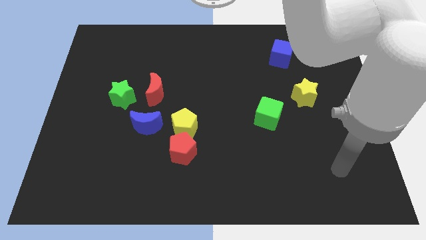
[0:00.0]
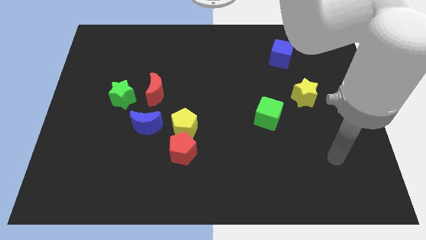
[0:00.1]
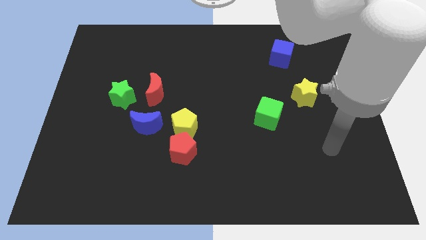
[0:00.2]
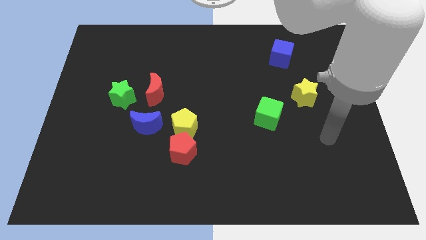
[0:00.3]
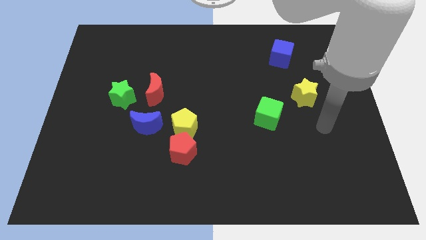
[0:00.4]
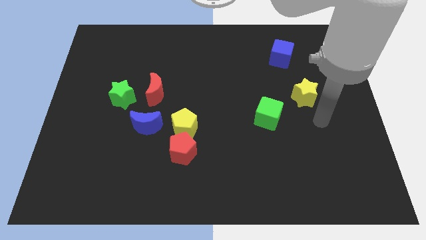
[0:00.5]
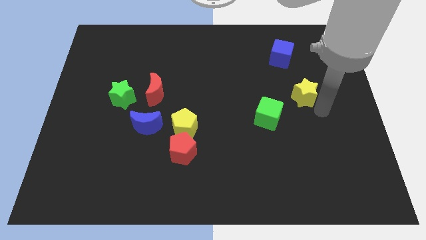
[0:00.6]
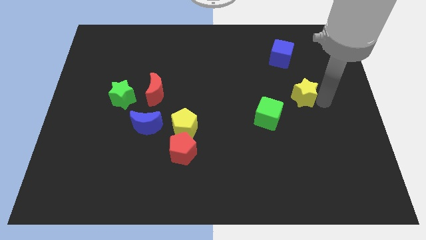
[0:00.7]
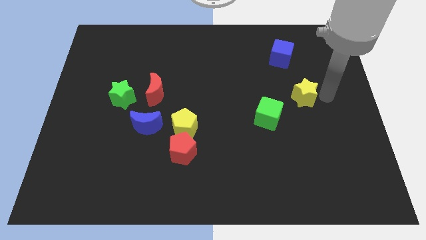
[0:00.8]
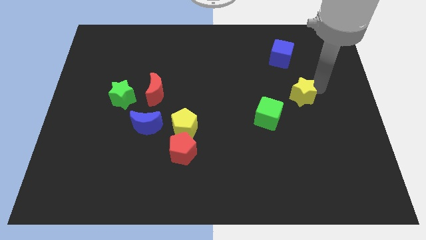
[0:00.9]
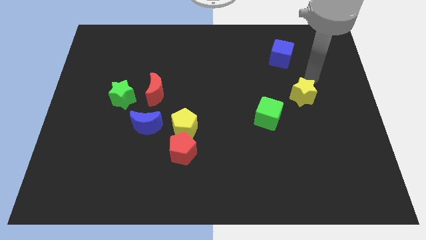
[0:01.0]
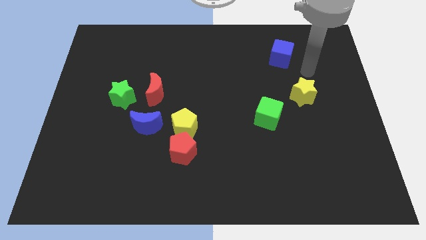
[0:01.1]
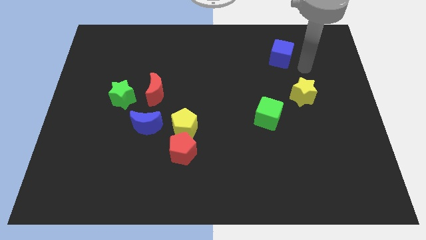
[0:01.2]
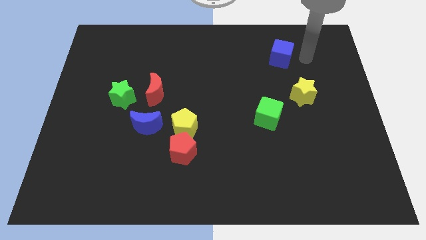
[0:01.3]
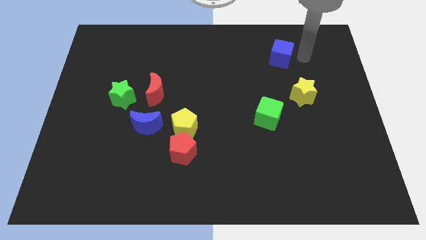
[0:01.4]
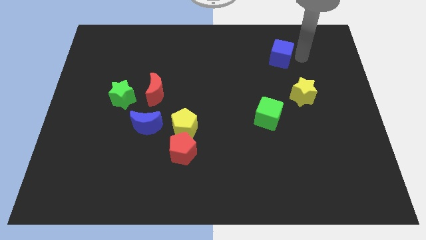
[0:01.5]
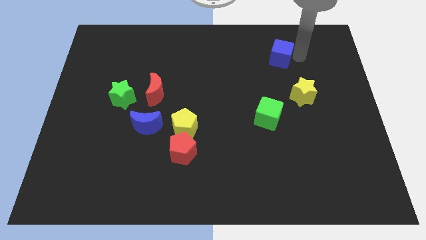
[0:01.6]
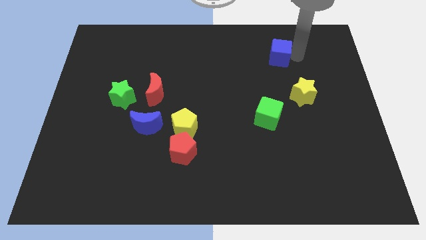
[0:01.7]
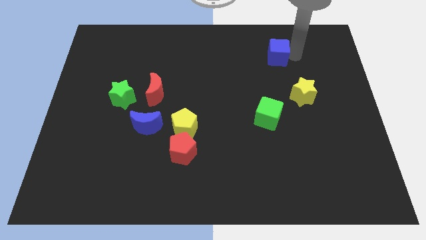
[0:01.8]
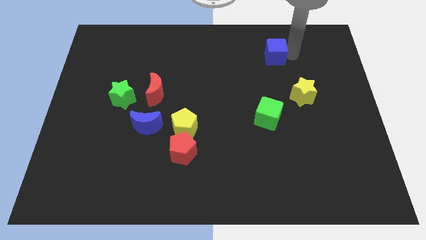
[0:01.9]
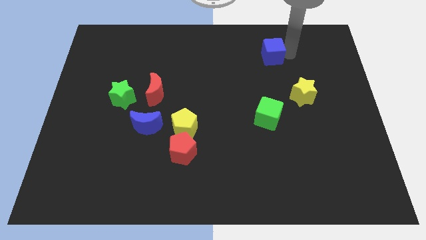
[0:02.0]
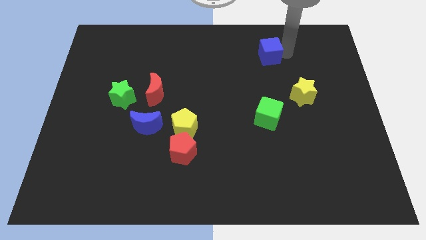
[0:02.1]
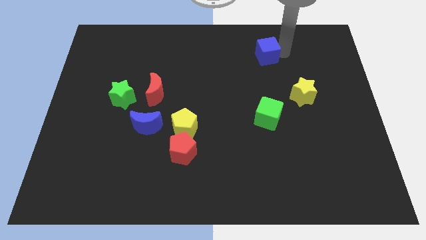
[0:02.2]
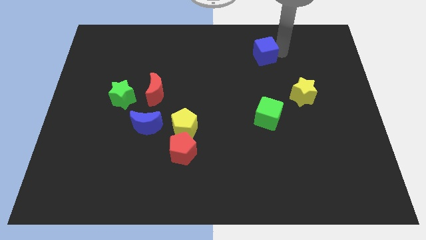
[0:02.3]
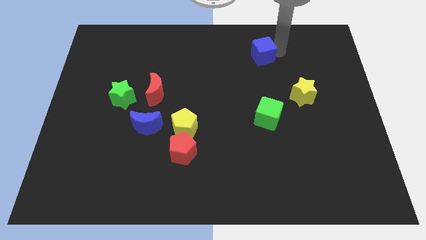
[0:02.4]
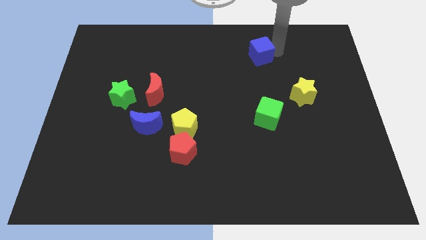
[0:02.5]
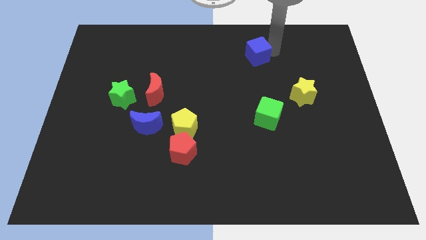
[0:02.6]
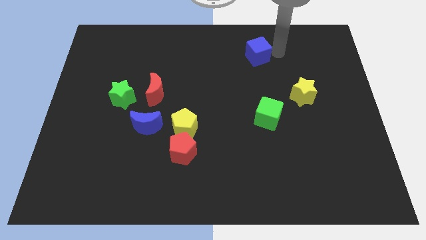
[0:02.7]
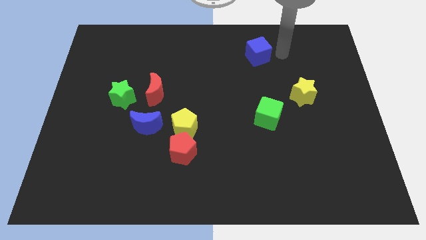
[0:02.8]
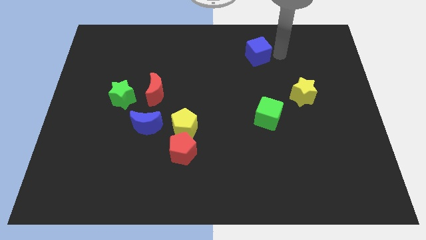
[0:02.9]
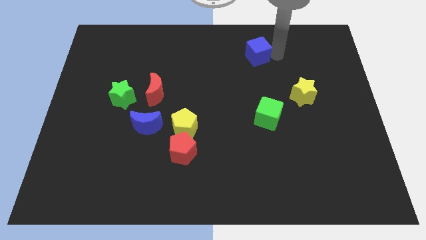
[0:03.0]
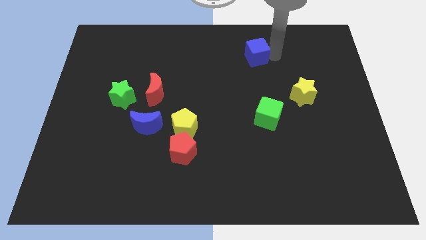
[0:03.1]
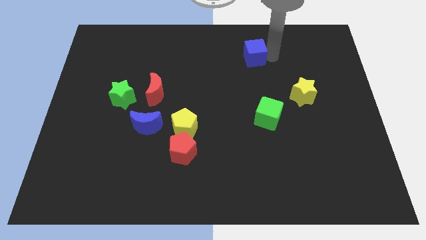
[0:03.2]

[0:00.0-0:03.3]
push the blue cube a little bit to the left

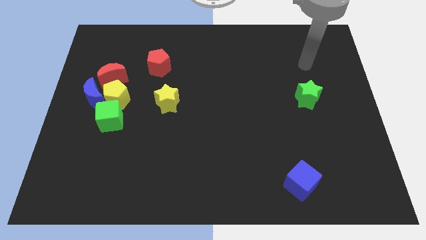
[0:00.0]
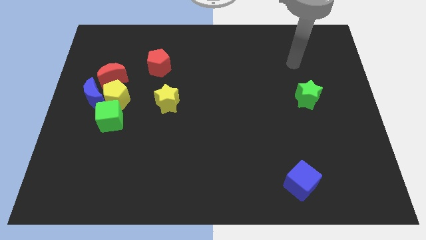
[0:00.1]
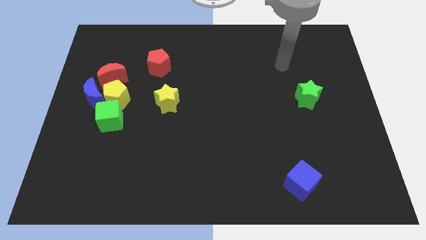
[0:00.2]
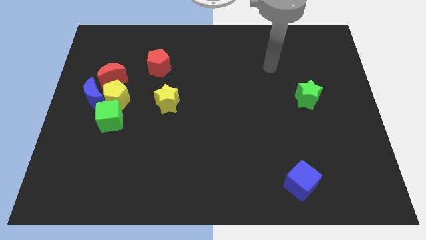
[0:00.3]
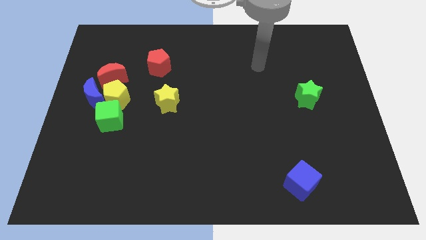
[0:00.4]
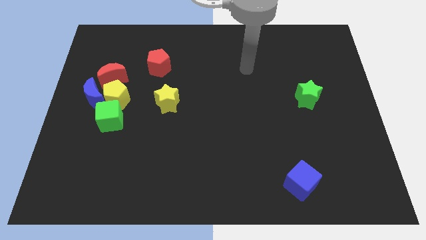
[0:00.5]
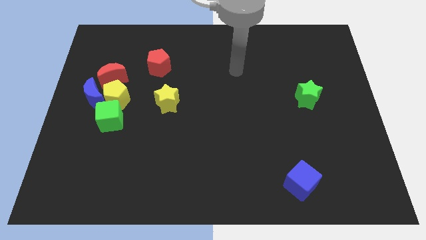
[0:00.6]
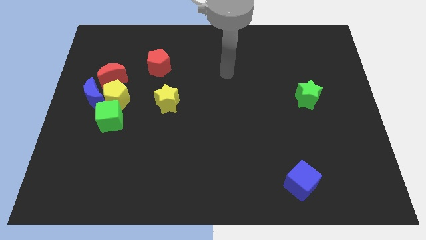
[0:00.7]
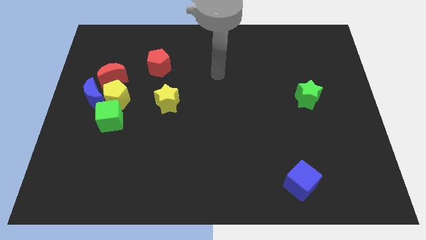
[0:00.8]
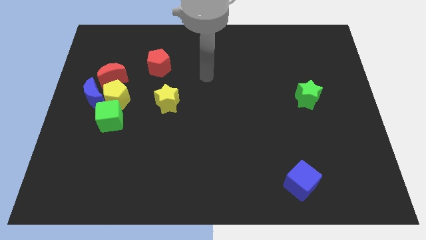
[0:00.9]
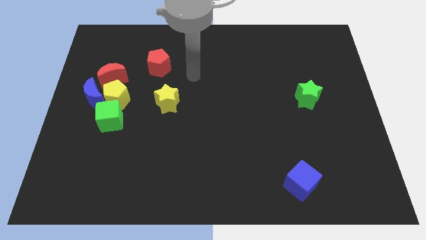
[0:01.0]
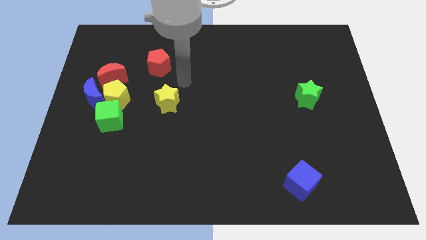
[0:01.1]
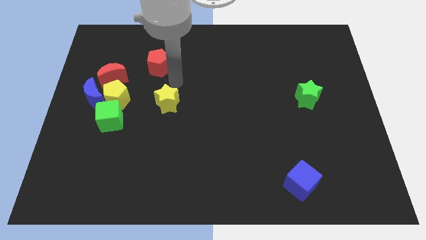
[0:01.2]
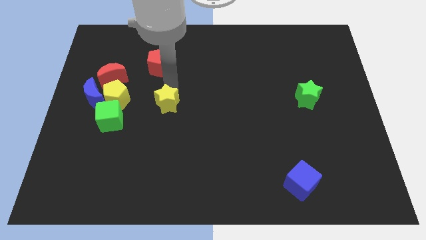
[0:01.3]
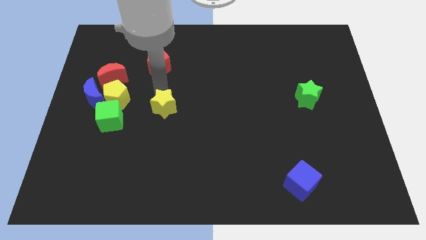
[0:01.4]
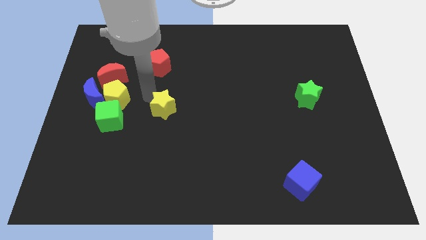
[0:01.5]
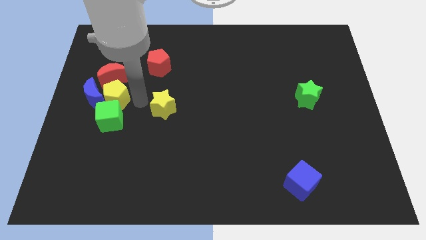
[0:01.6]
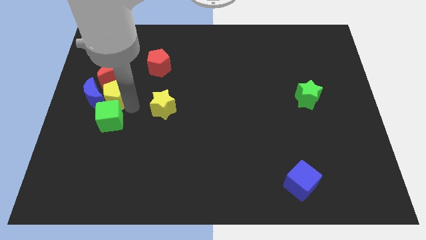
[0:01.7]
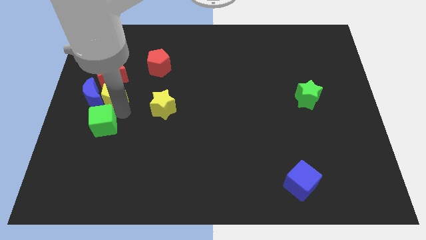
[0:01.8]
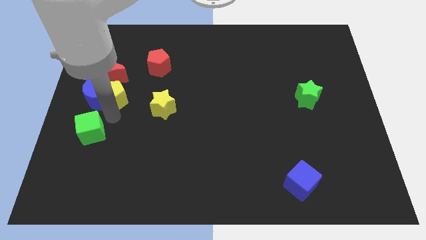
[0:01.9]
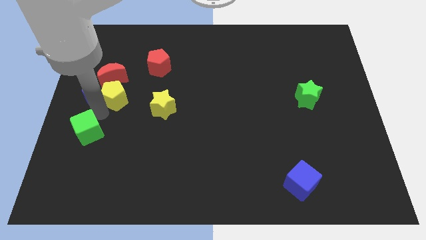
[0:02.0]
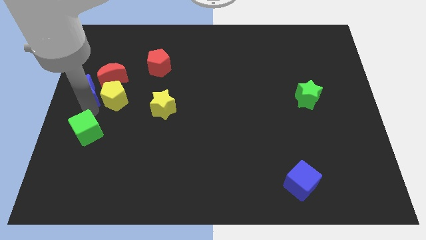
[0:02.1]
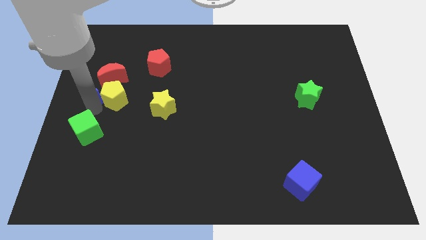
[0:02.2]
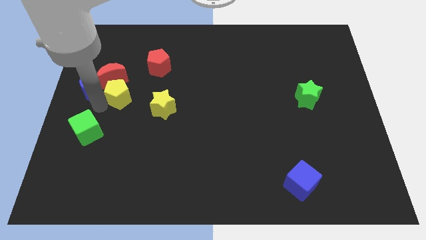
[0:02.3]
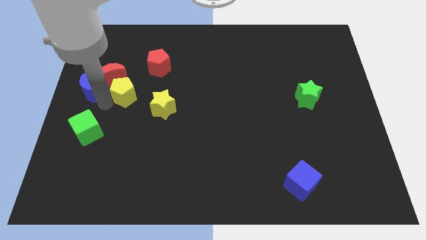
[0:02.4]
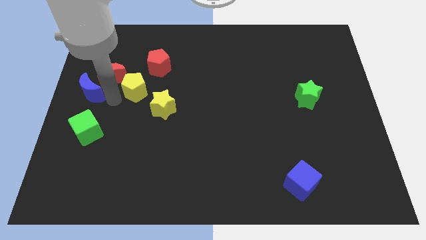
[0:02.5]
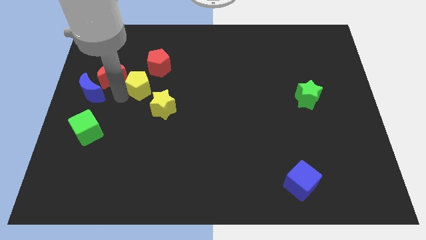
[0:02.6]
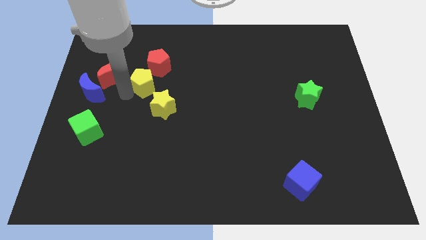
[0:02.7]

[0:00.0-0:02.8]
push the yellow pentagon a little upwards and then to the right

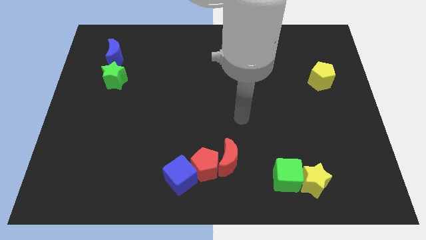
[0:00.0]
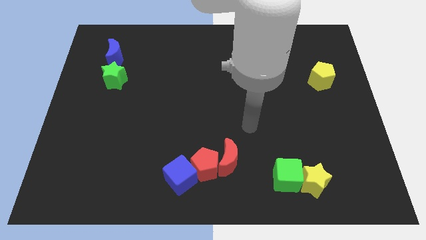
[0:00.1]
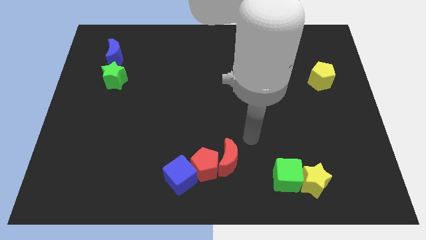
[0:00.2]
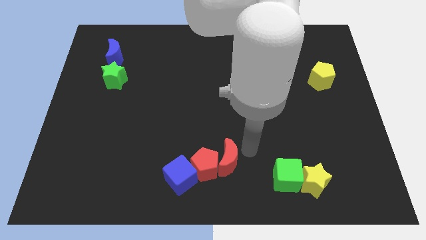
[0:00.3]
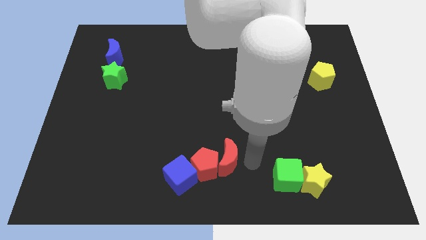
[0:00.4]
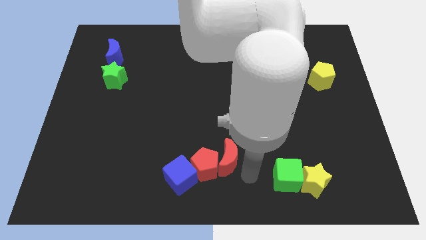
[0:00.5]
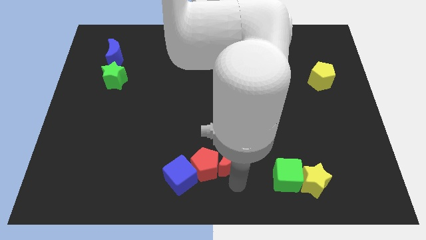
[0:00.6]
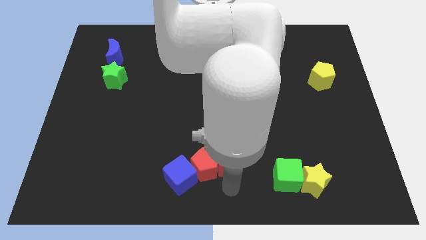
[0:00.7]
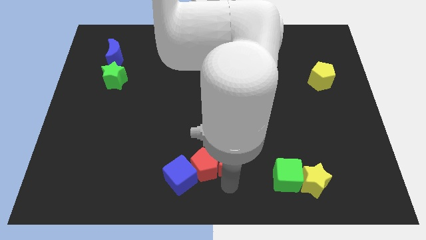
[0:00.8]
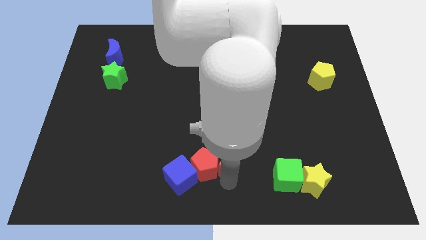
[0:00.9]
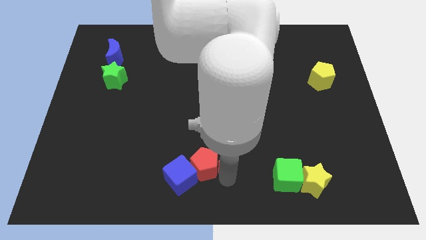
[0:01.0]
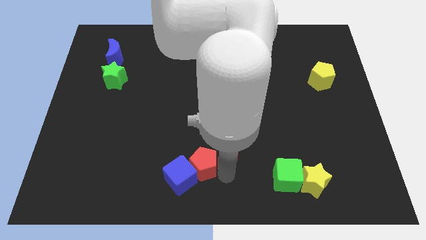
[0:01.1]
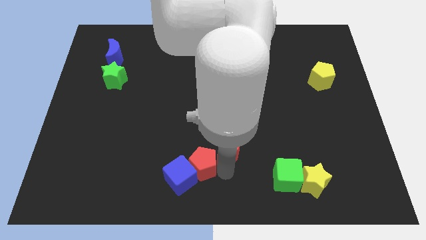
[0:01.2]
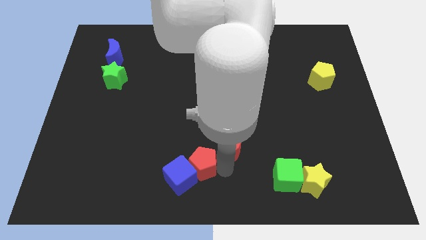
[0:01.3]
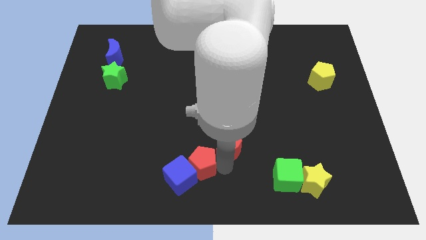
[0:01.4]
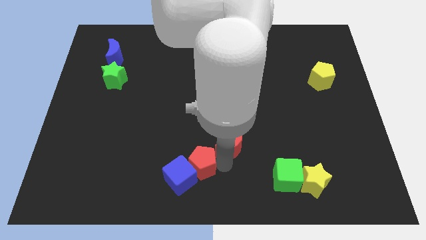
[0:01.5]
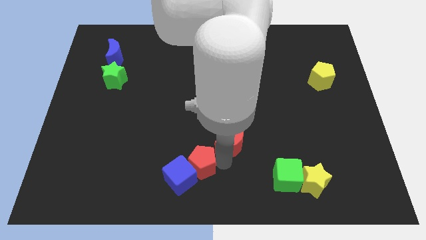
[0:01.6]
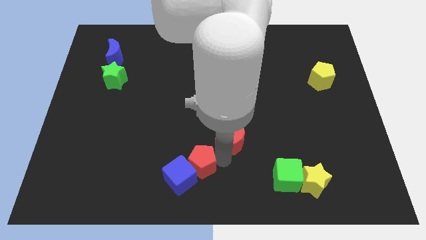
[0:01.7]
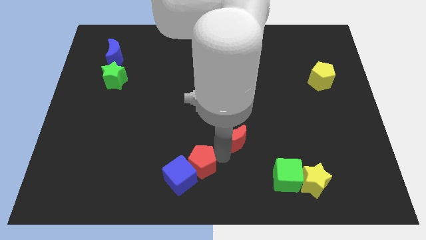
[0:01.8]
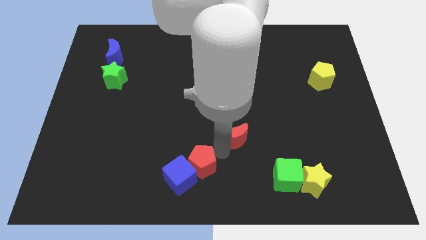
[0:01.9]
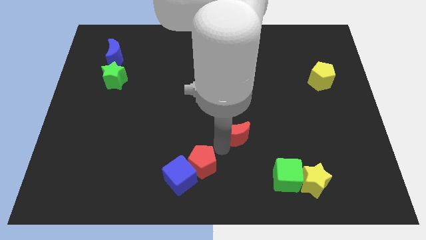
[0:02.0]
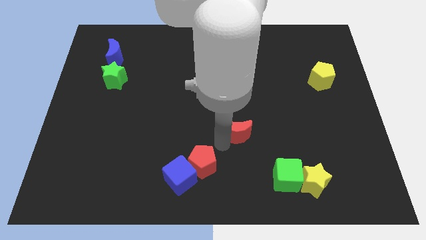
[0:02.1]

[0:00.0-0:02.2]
move the red moon upwards somewhat
